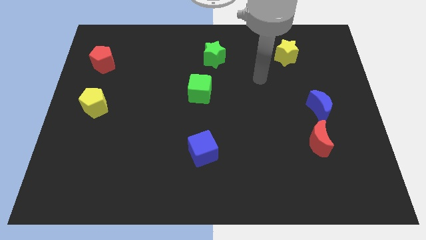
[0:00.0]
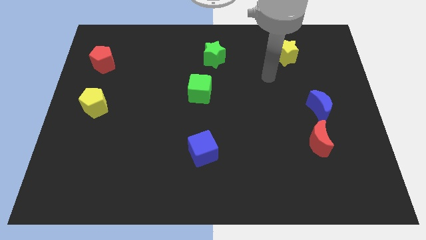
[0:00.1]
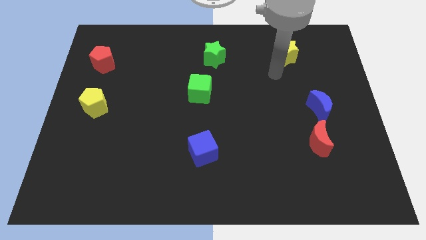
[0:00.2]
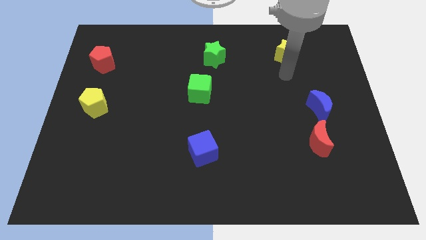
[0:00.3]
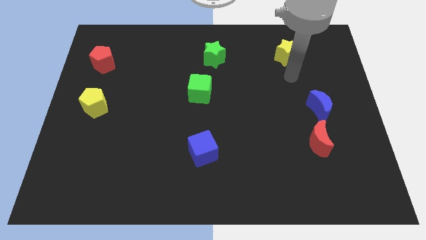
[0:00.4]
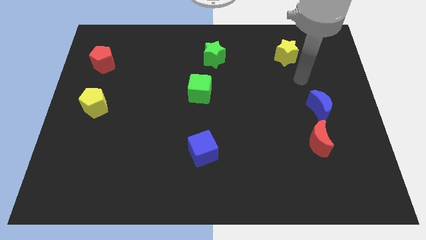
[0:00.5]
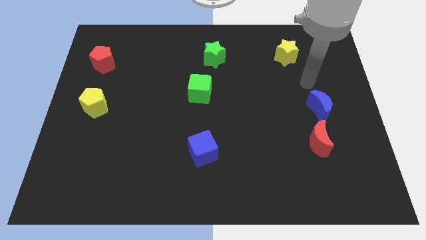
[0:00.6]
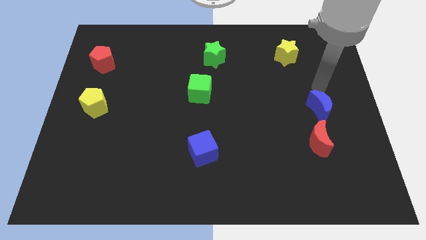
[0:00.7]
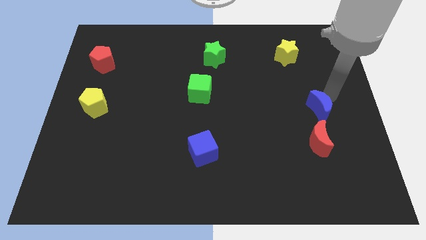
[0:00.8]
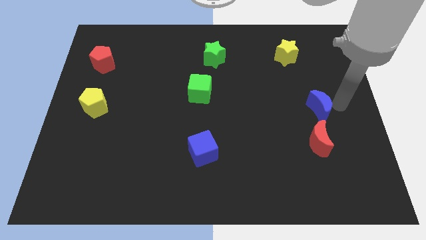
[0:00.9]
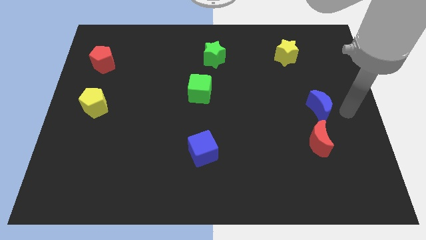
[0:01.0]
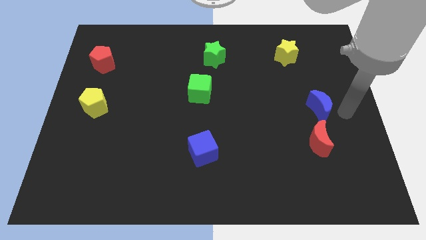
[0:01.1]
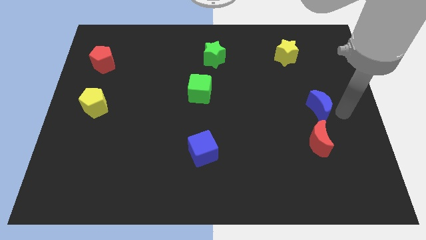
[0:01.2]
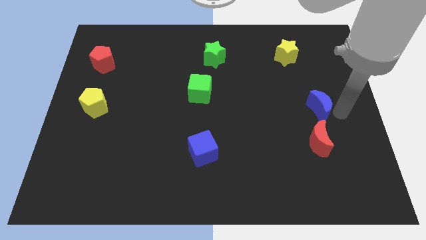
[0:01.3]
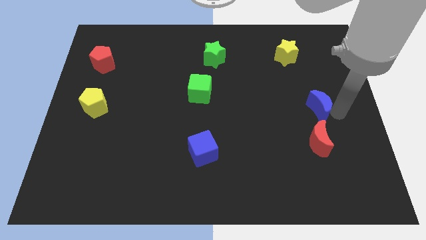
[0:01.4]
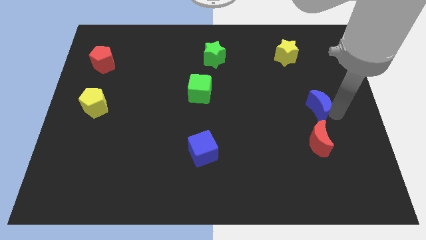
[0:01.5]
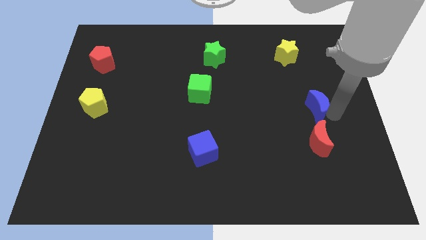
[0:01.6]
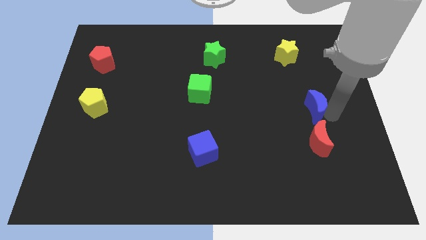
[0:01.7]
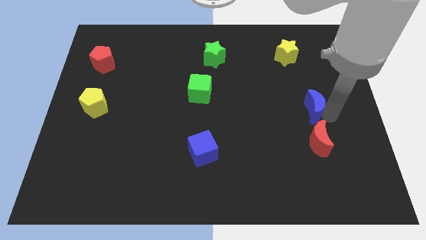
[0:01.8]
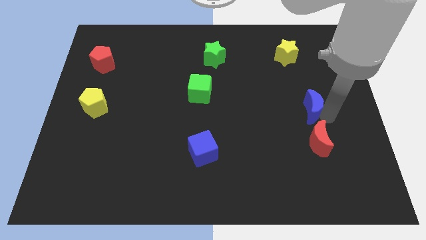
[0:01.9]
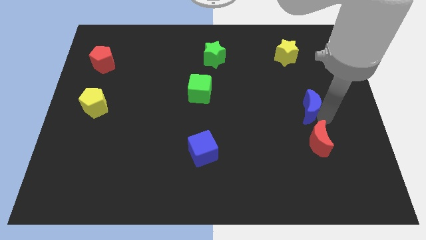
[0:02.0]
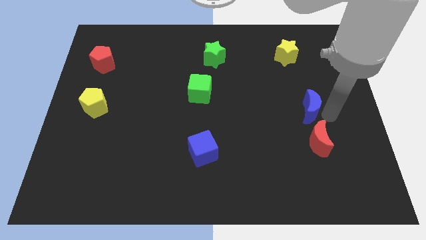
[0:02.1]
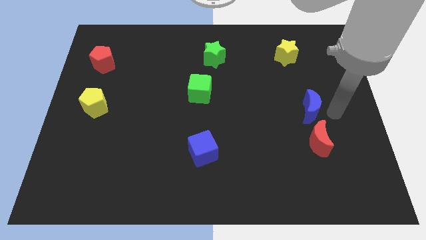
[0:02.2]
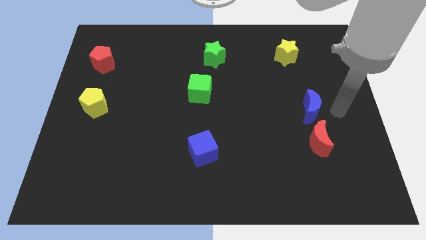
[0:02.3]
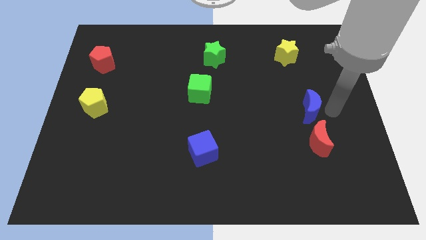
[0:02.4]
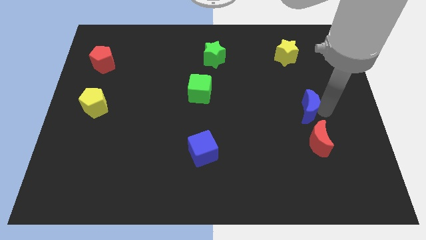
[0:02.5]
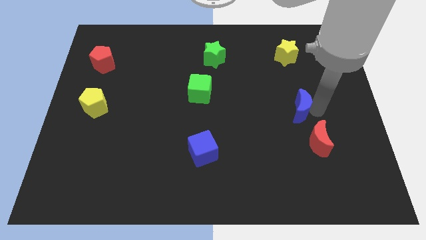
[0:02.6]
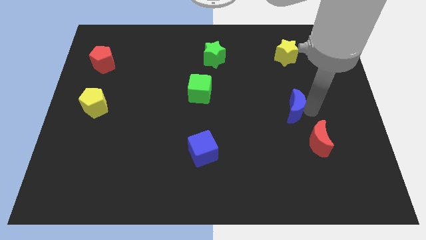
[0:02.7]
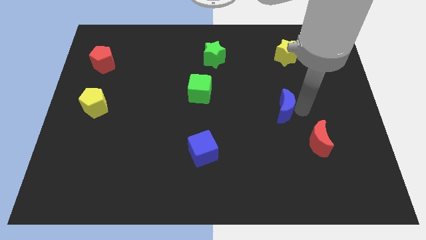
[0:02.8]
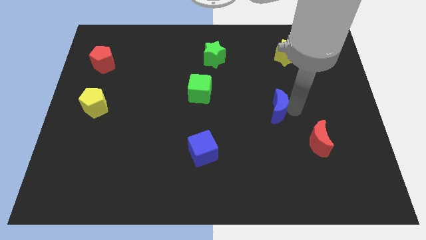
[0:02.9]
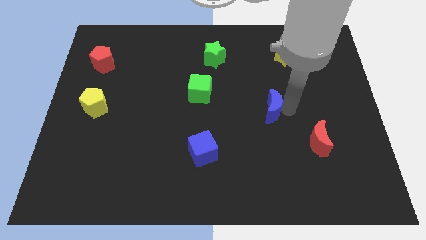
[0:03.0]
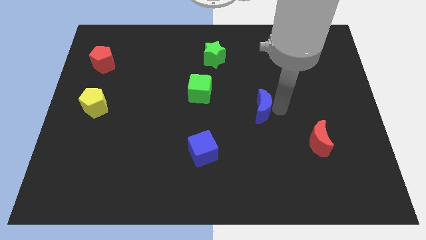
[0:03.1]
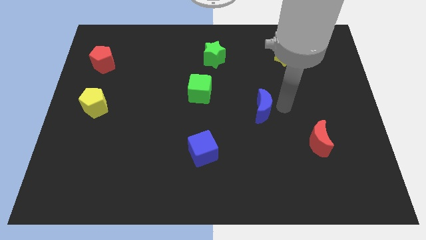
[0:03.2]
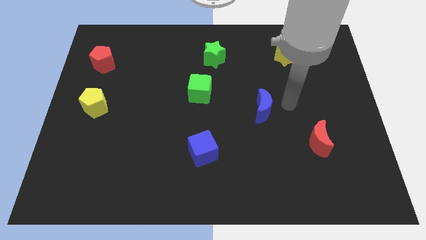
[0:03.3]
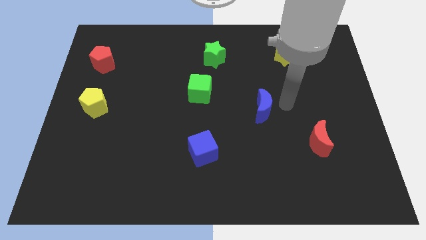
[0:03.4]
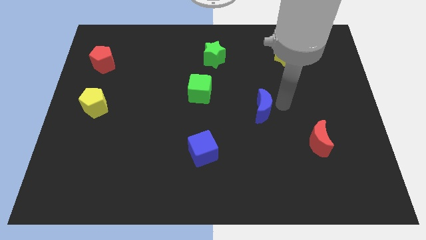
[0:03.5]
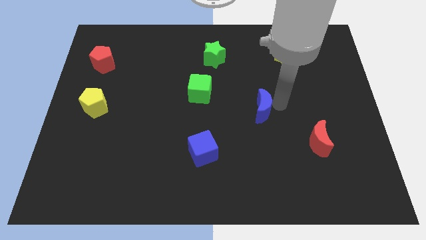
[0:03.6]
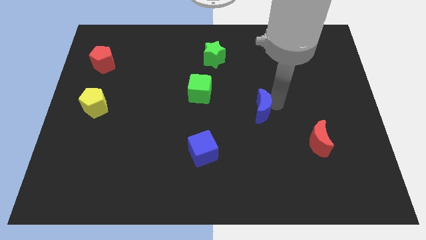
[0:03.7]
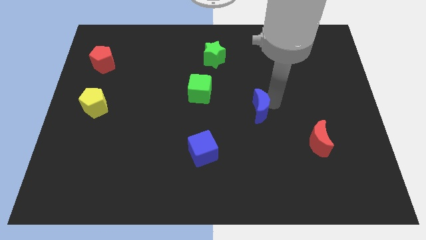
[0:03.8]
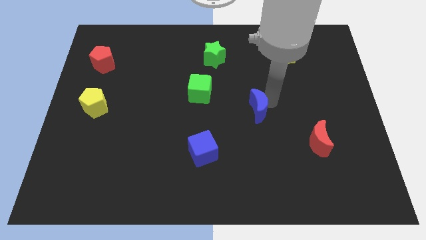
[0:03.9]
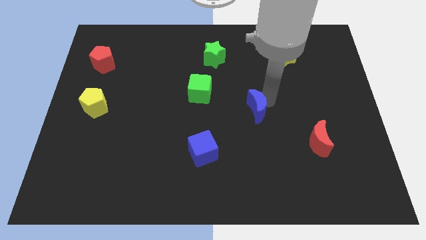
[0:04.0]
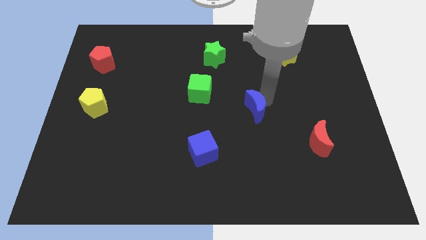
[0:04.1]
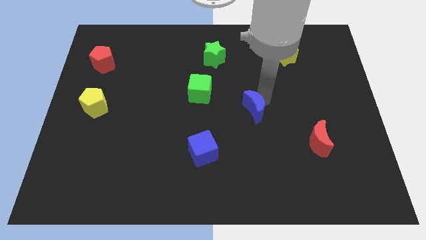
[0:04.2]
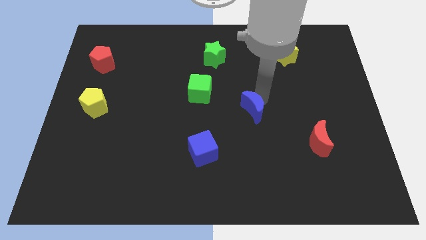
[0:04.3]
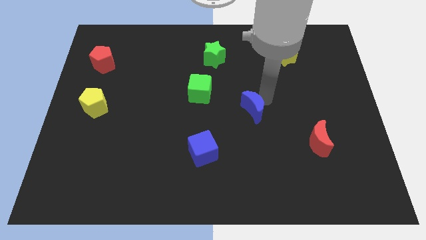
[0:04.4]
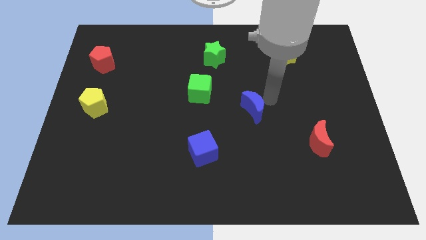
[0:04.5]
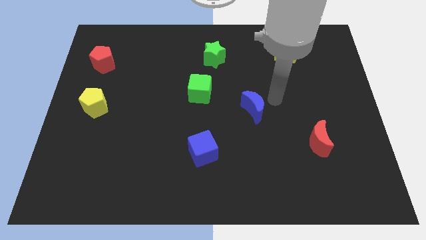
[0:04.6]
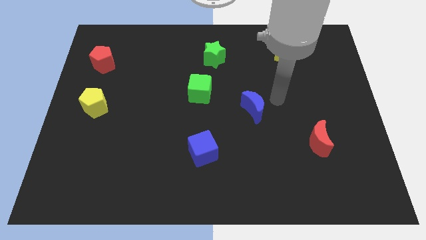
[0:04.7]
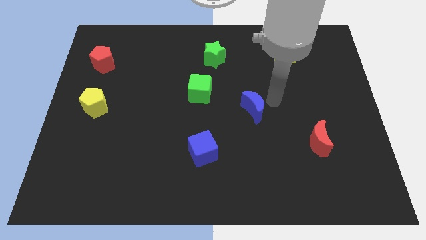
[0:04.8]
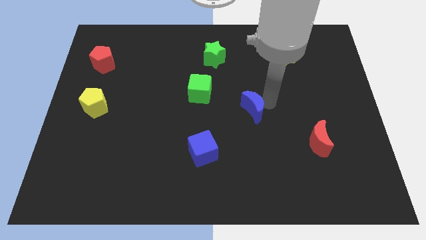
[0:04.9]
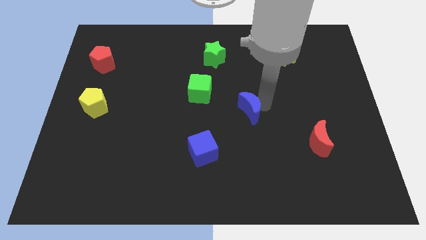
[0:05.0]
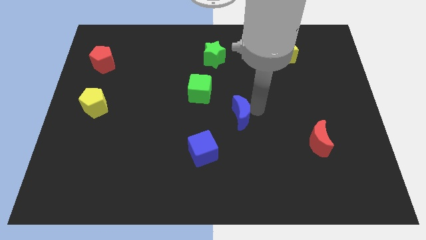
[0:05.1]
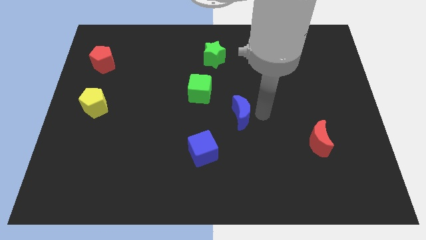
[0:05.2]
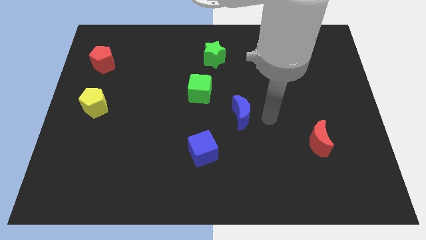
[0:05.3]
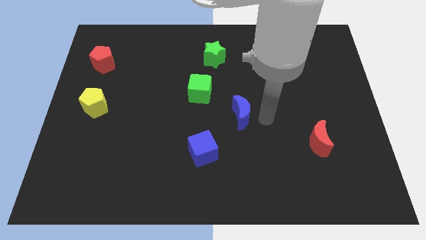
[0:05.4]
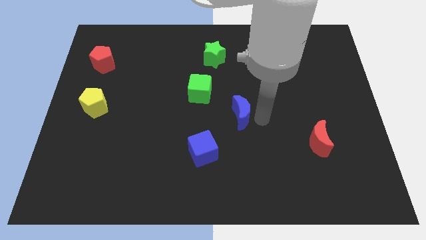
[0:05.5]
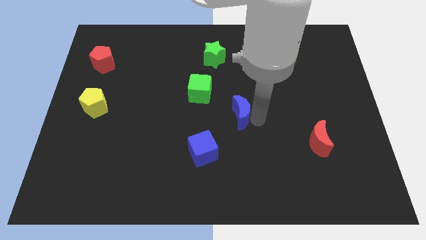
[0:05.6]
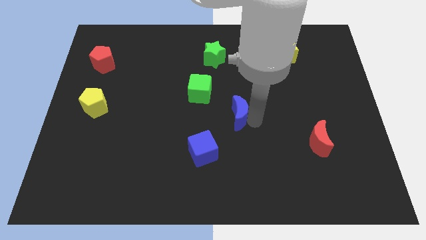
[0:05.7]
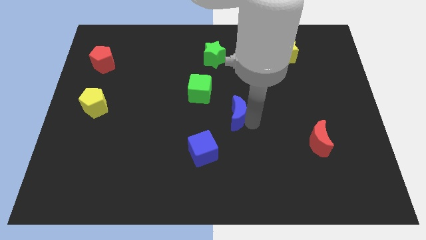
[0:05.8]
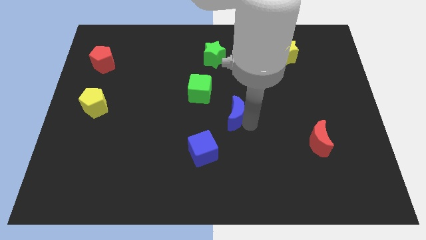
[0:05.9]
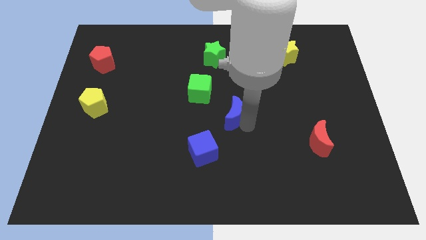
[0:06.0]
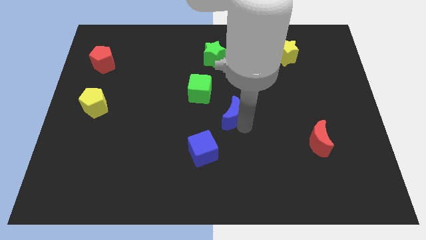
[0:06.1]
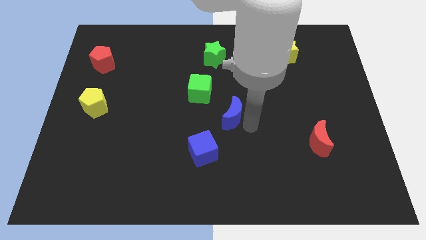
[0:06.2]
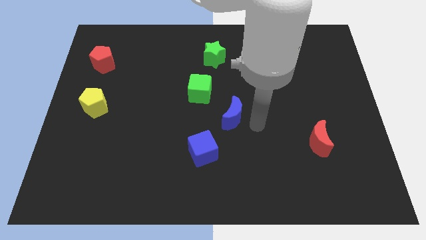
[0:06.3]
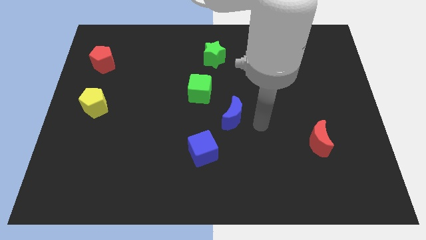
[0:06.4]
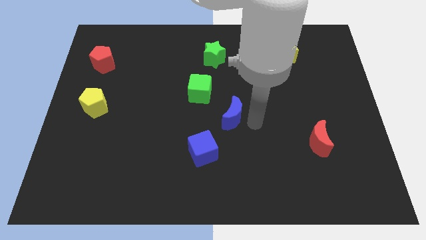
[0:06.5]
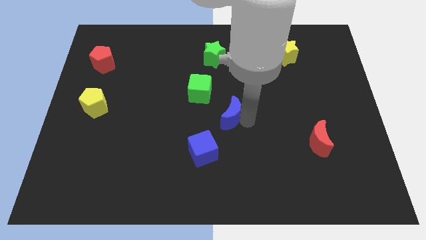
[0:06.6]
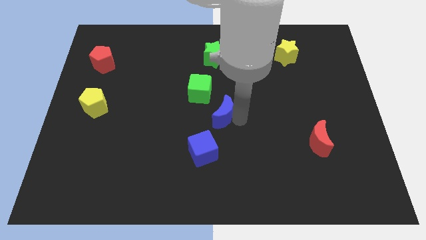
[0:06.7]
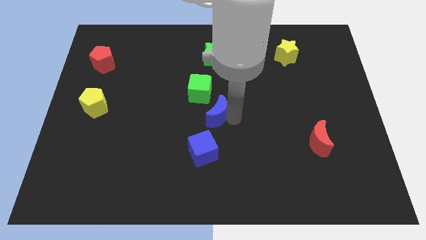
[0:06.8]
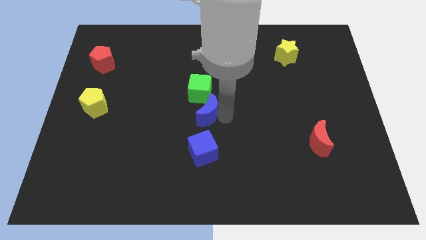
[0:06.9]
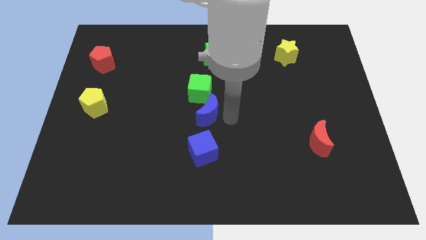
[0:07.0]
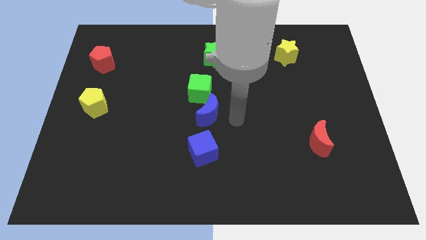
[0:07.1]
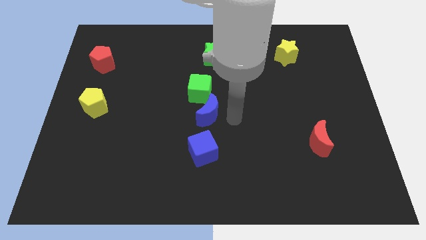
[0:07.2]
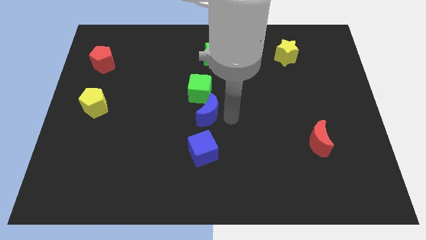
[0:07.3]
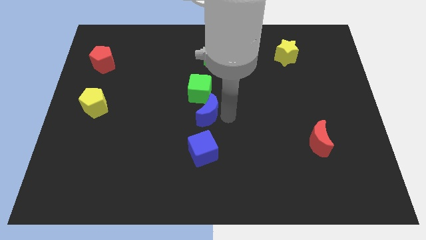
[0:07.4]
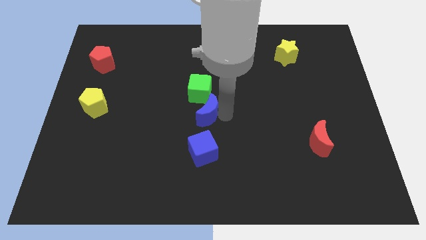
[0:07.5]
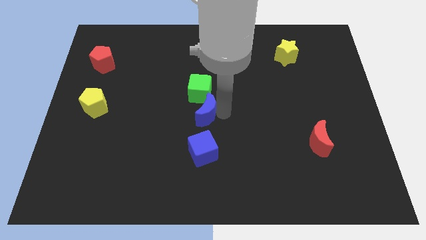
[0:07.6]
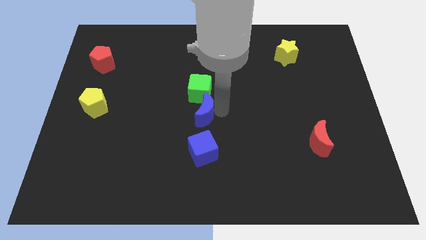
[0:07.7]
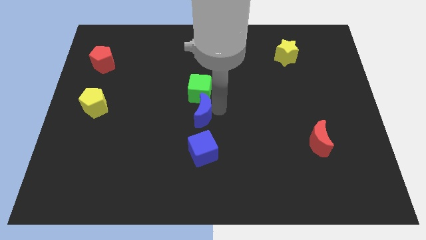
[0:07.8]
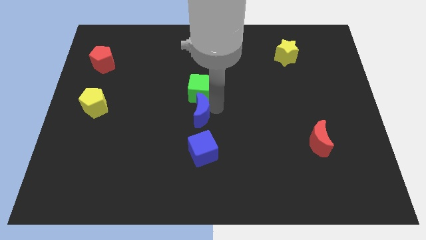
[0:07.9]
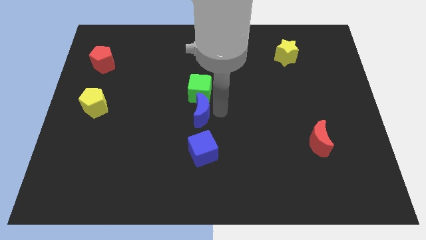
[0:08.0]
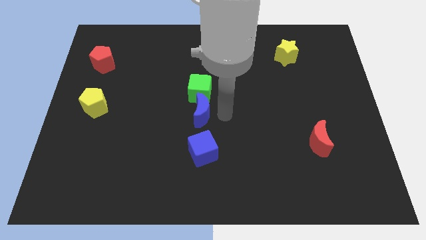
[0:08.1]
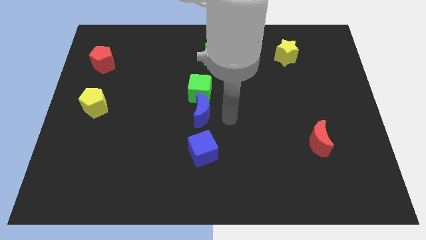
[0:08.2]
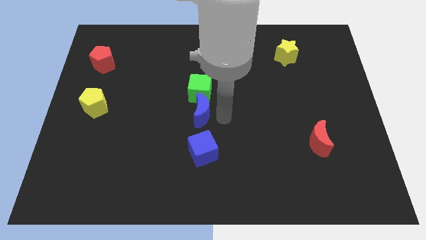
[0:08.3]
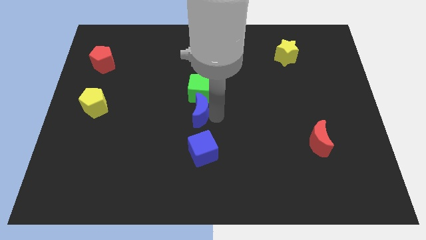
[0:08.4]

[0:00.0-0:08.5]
move the blue moon to the bottom left side of the green cube

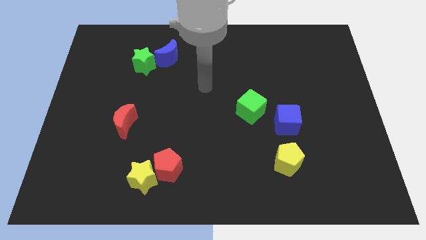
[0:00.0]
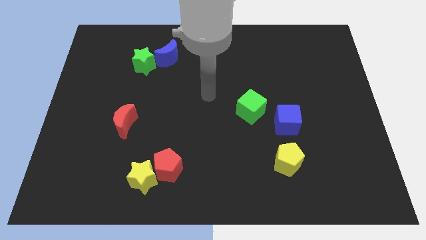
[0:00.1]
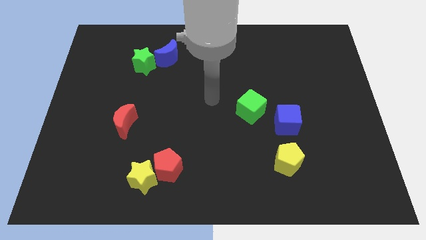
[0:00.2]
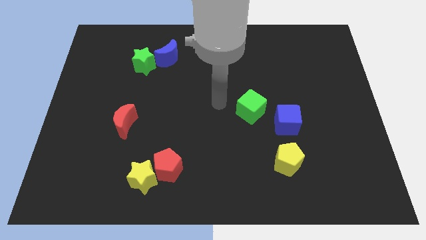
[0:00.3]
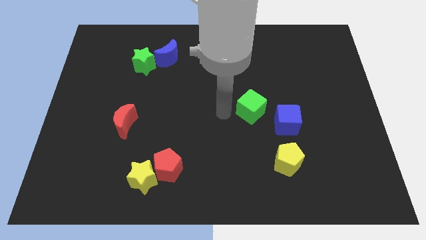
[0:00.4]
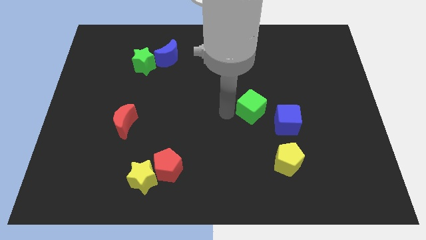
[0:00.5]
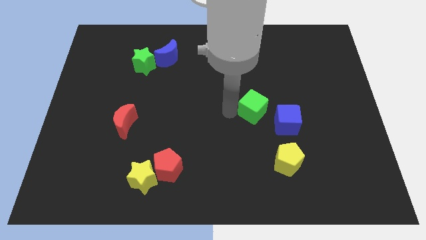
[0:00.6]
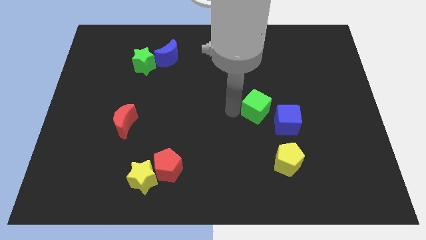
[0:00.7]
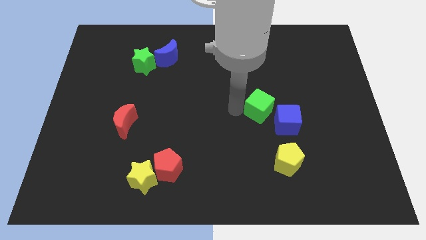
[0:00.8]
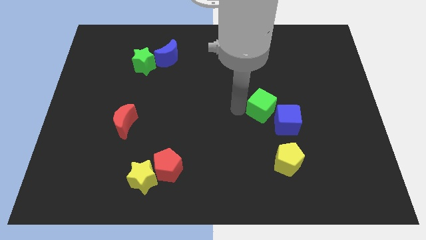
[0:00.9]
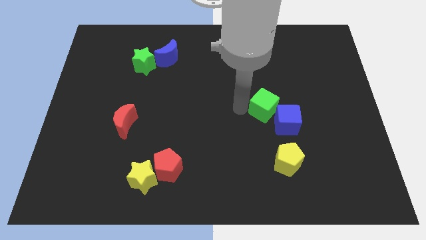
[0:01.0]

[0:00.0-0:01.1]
slide the green cube to the top of the yellow pentagon
